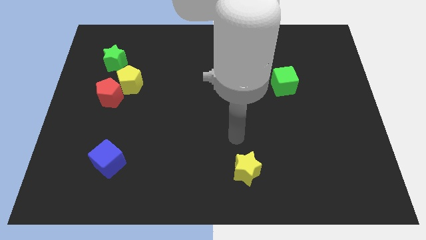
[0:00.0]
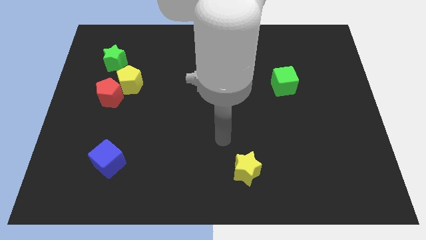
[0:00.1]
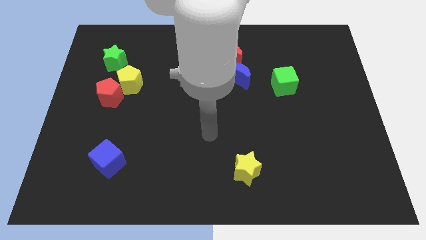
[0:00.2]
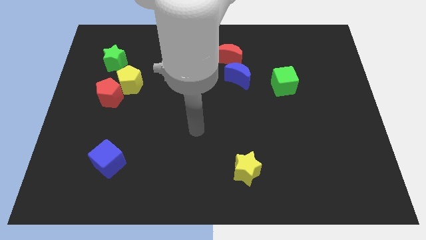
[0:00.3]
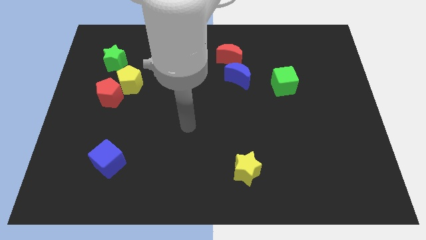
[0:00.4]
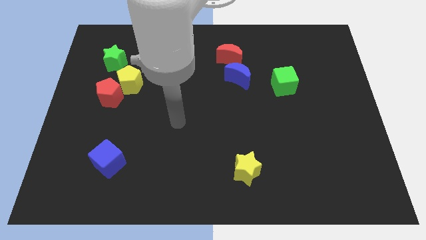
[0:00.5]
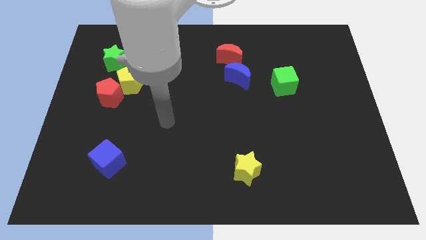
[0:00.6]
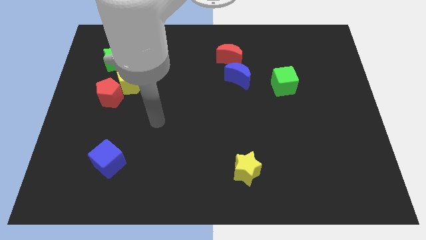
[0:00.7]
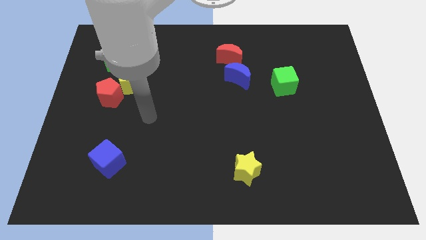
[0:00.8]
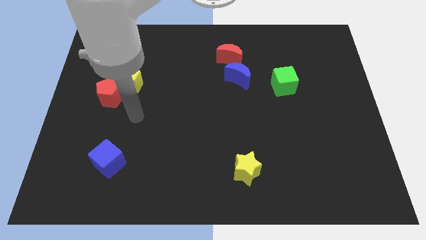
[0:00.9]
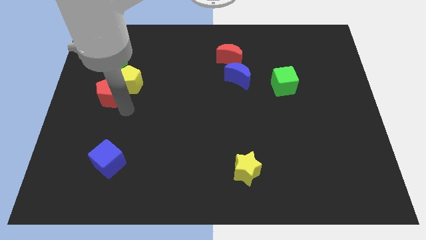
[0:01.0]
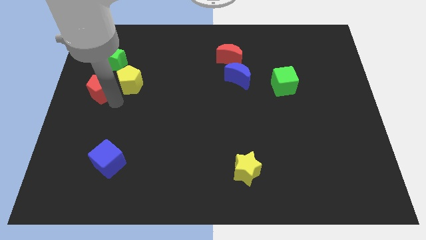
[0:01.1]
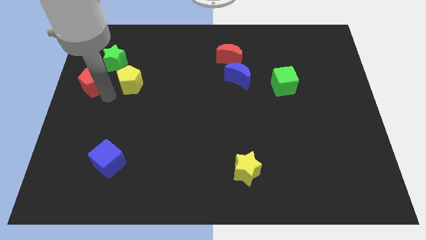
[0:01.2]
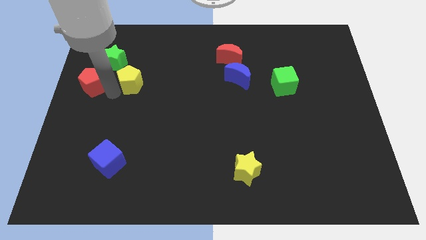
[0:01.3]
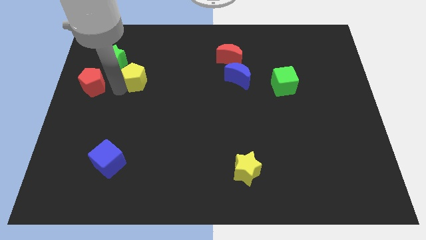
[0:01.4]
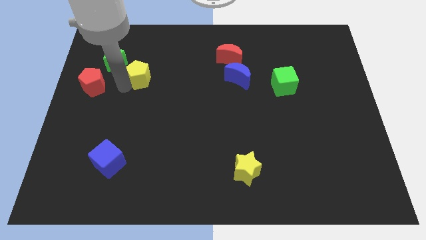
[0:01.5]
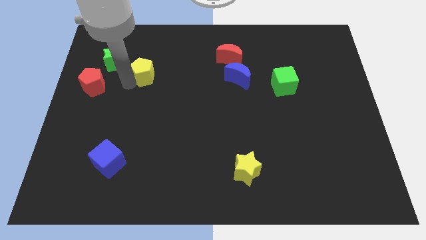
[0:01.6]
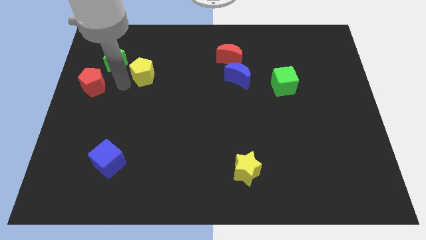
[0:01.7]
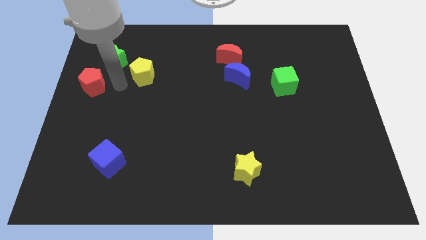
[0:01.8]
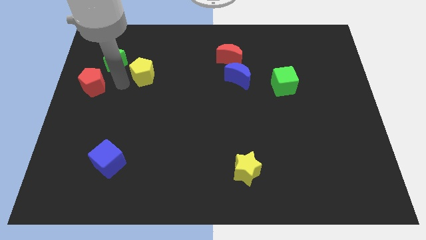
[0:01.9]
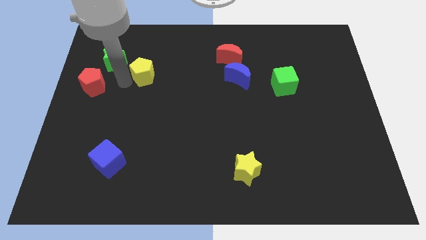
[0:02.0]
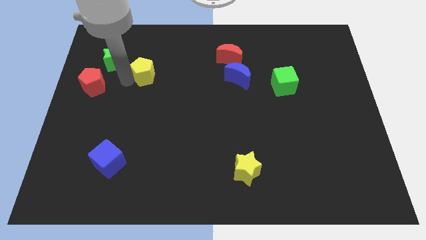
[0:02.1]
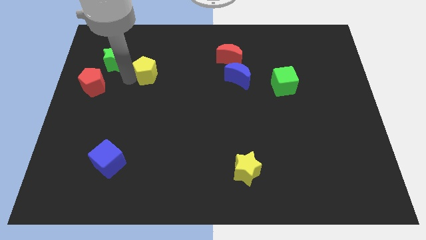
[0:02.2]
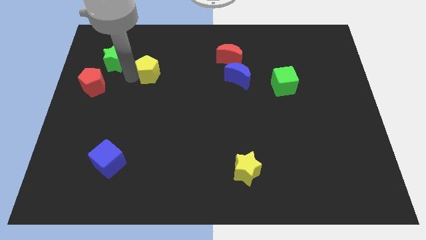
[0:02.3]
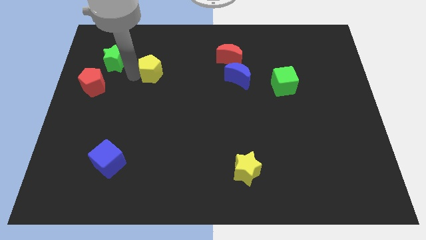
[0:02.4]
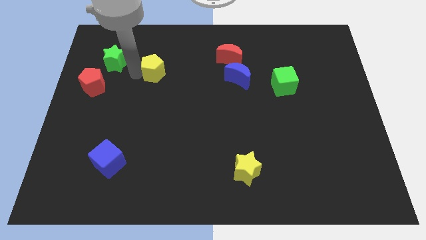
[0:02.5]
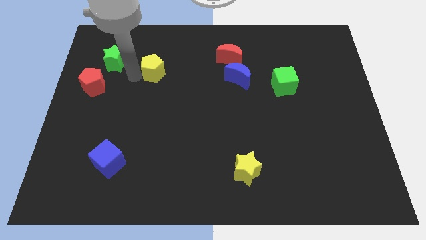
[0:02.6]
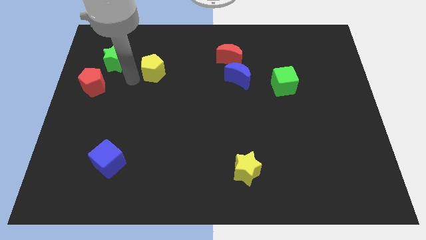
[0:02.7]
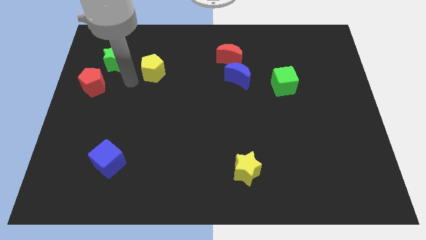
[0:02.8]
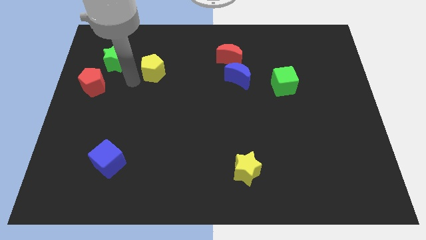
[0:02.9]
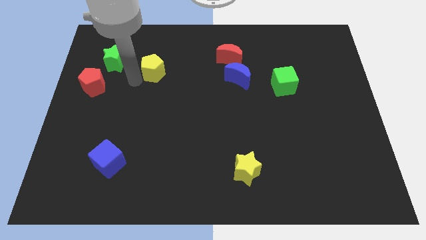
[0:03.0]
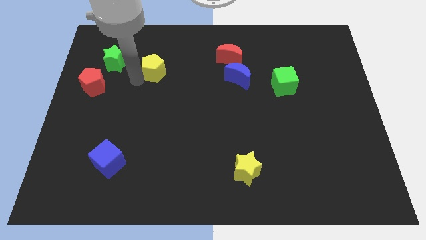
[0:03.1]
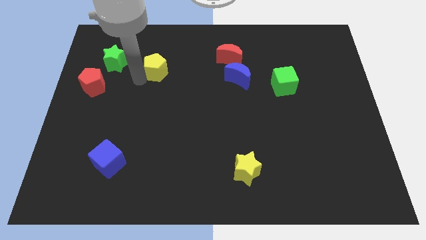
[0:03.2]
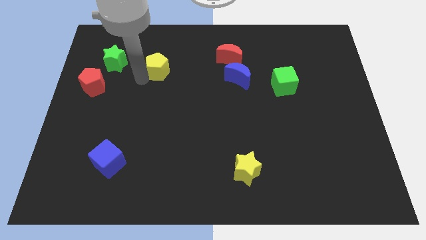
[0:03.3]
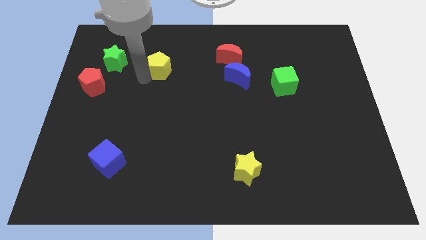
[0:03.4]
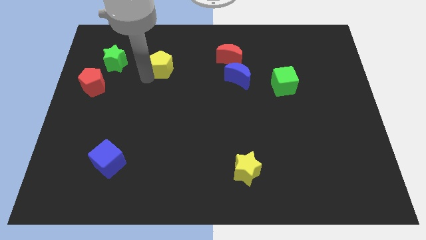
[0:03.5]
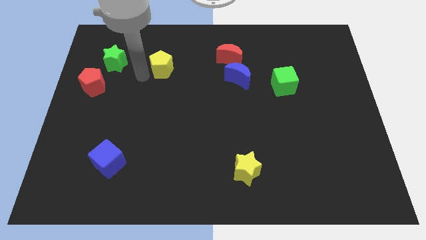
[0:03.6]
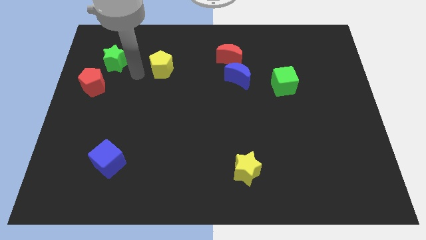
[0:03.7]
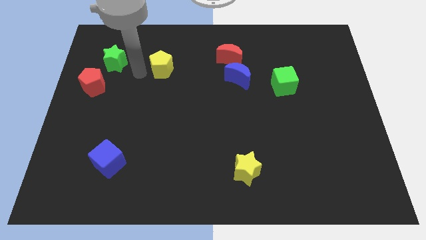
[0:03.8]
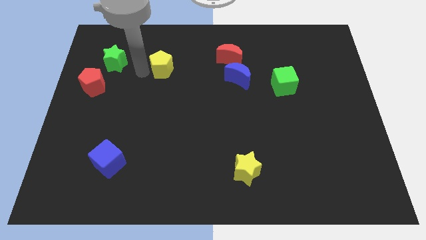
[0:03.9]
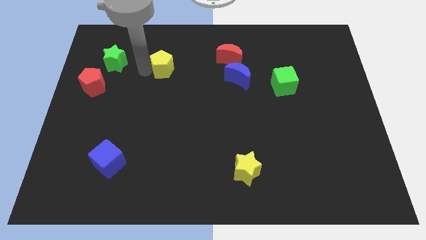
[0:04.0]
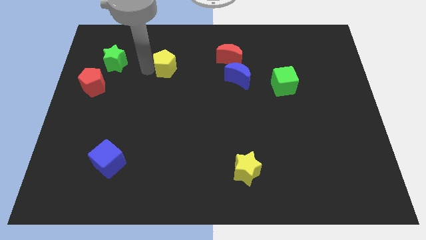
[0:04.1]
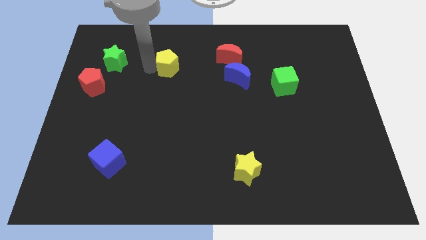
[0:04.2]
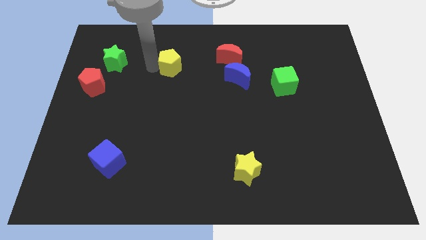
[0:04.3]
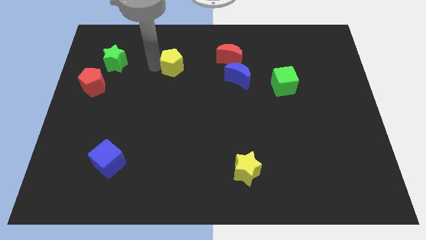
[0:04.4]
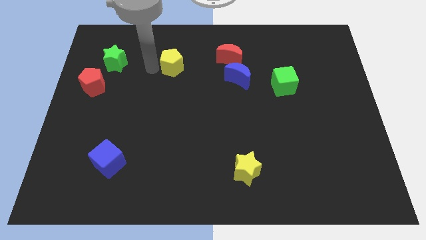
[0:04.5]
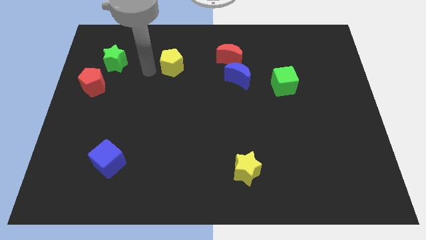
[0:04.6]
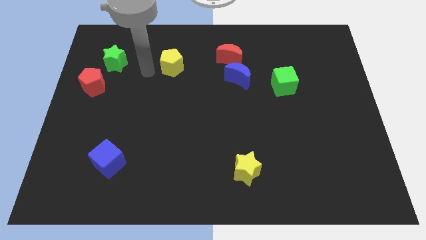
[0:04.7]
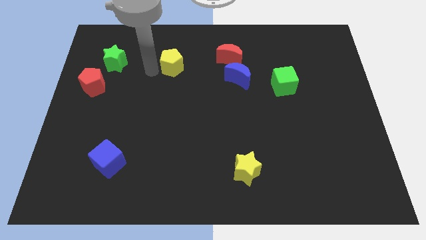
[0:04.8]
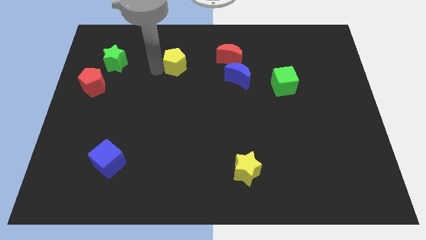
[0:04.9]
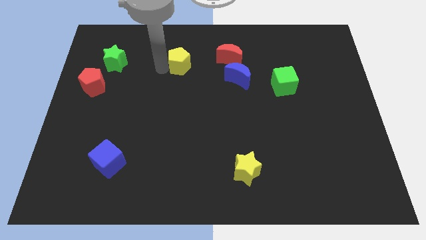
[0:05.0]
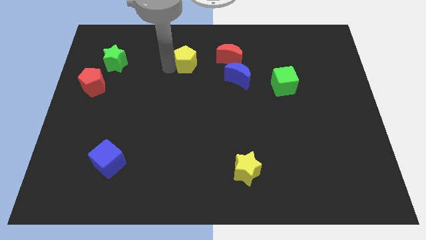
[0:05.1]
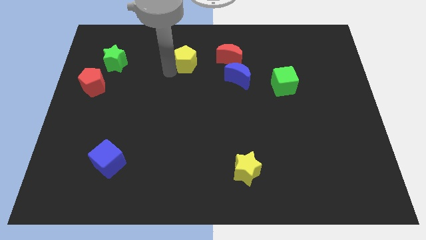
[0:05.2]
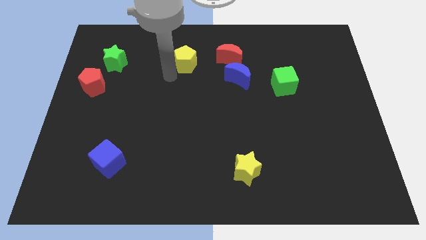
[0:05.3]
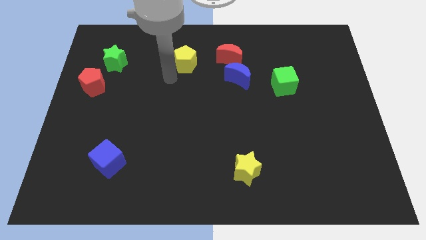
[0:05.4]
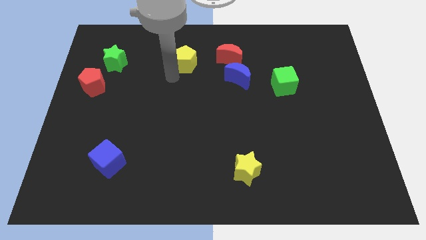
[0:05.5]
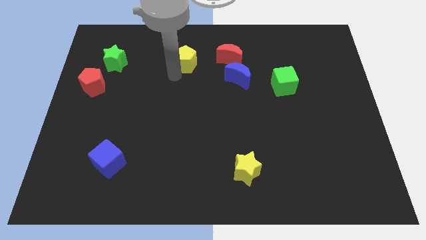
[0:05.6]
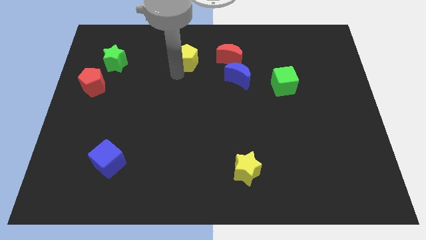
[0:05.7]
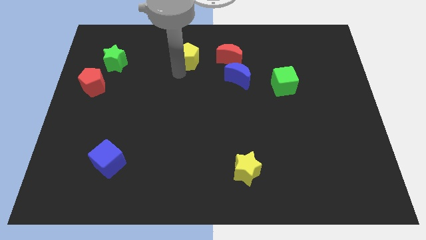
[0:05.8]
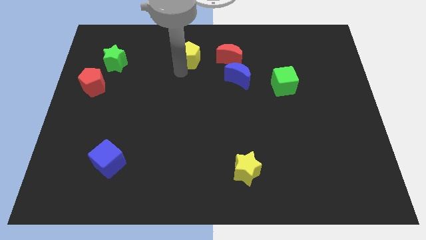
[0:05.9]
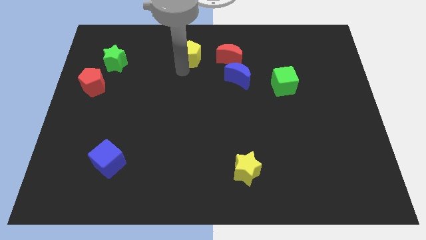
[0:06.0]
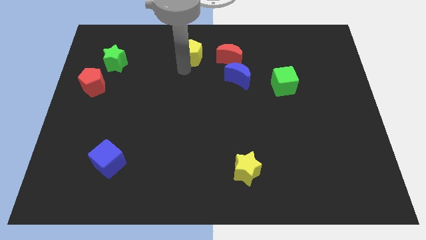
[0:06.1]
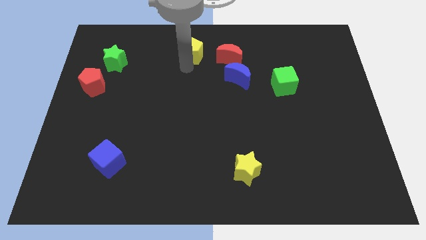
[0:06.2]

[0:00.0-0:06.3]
slide the yellow pentagon to the top side

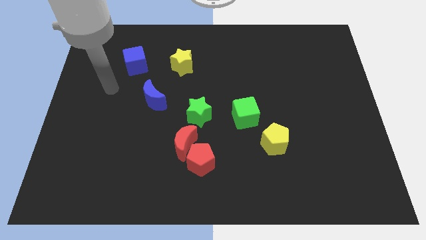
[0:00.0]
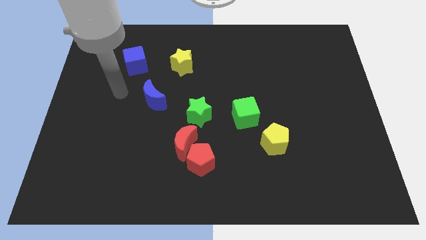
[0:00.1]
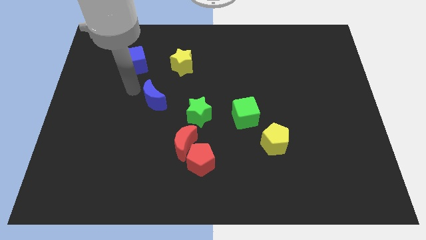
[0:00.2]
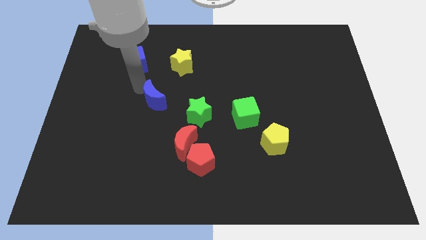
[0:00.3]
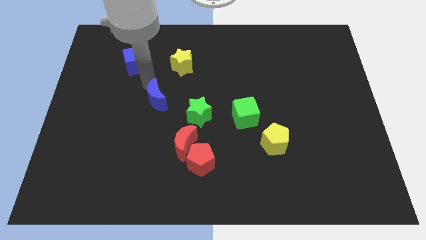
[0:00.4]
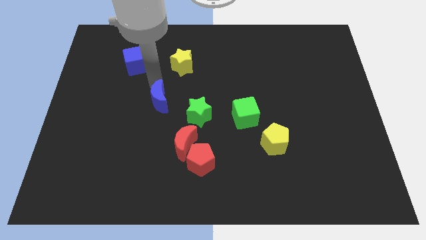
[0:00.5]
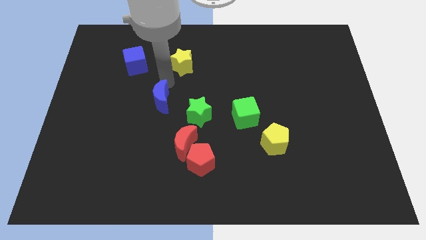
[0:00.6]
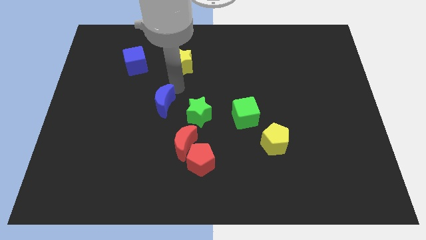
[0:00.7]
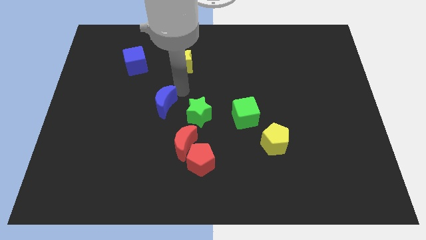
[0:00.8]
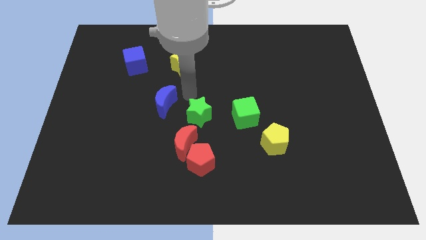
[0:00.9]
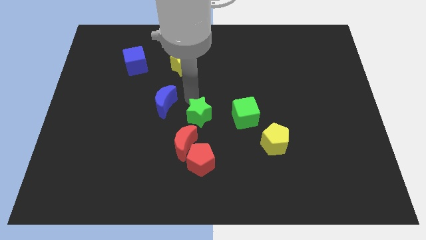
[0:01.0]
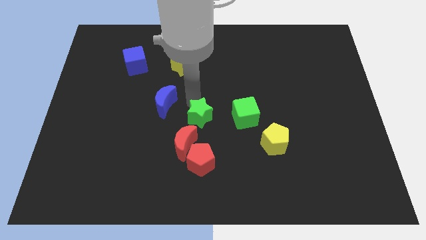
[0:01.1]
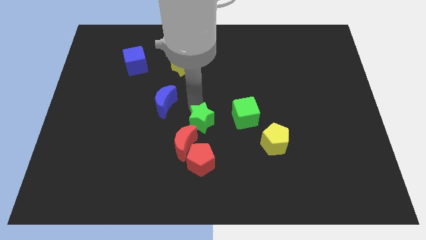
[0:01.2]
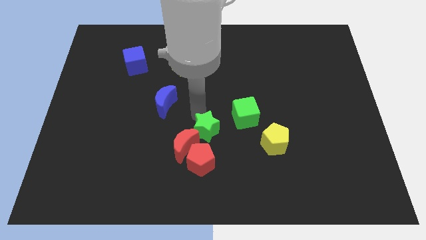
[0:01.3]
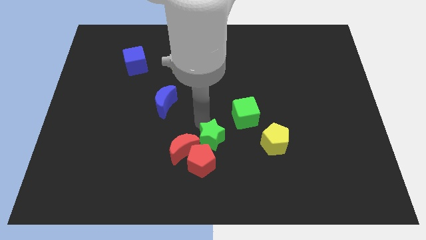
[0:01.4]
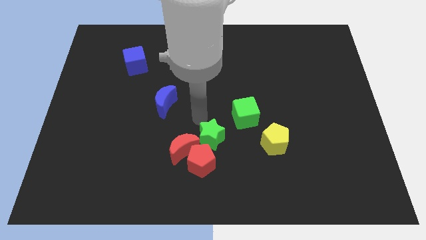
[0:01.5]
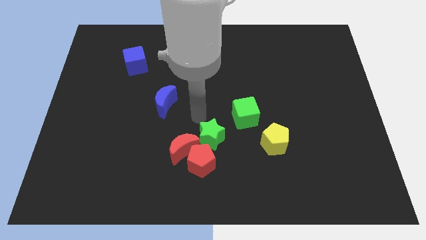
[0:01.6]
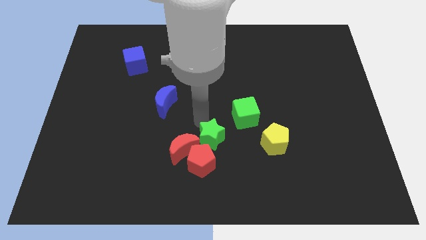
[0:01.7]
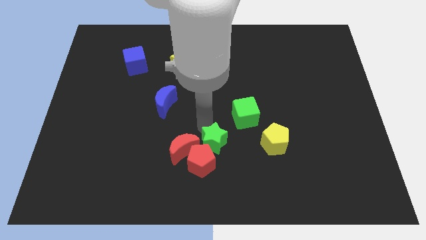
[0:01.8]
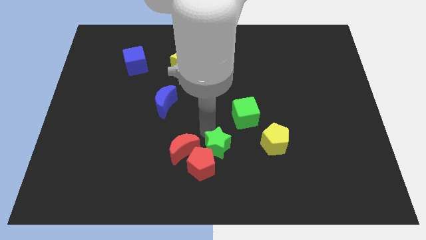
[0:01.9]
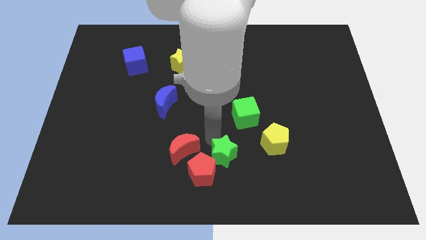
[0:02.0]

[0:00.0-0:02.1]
move the green star to the bottom
